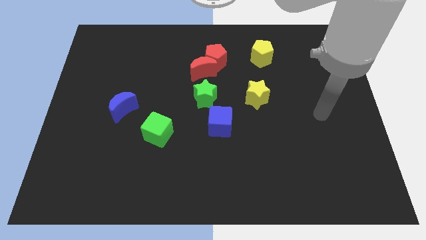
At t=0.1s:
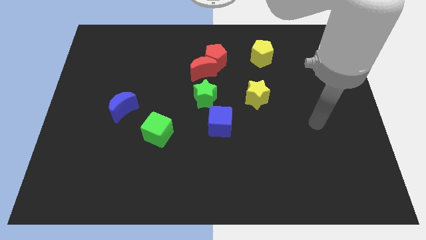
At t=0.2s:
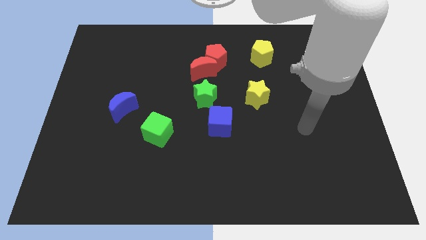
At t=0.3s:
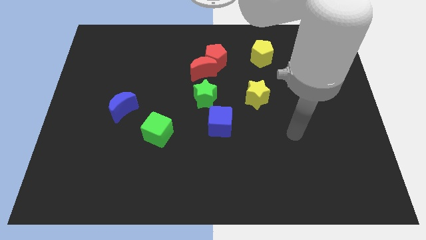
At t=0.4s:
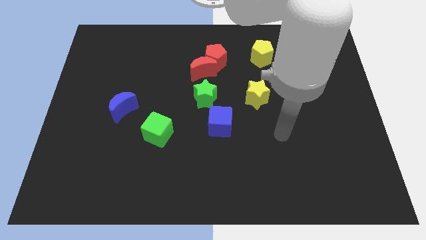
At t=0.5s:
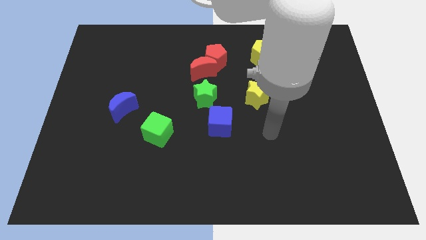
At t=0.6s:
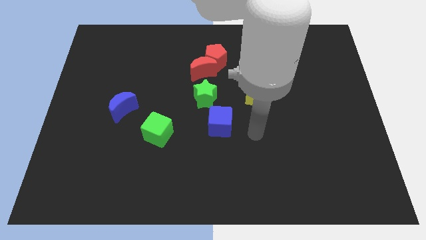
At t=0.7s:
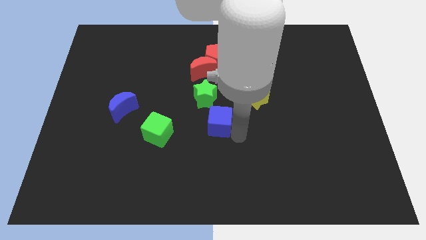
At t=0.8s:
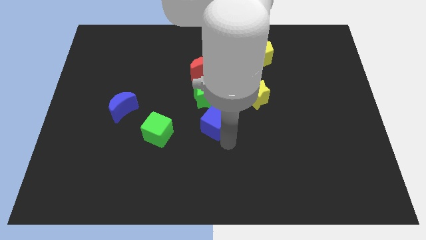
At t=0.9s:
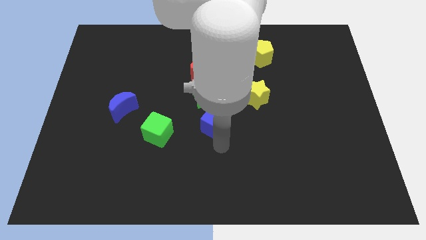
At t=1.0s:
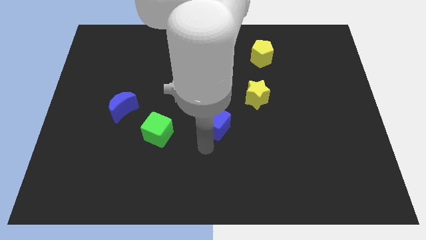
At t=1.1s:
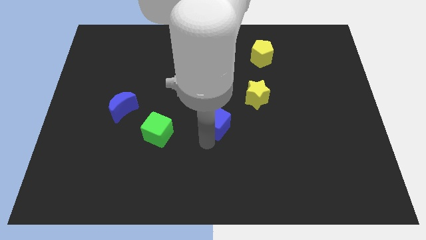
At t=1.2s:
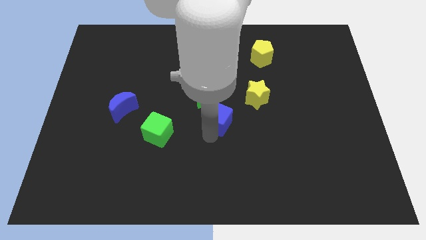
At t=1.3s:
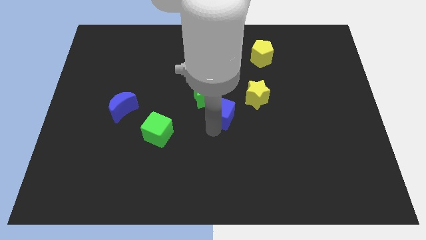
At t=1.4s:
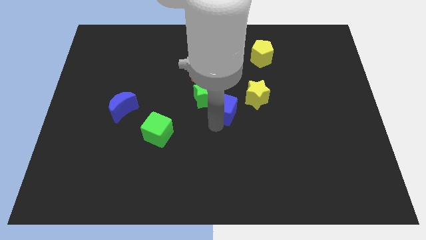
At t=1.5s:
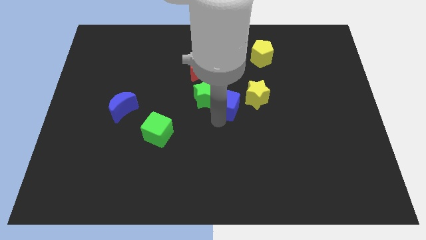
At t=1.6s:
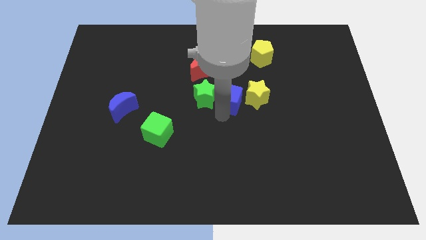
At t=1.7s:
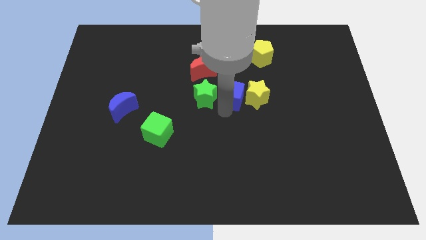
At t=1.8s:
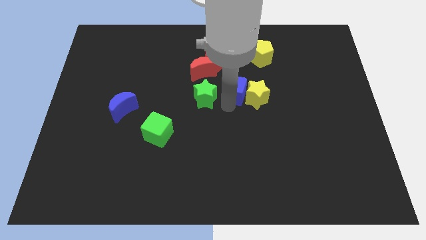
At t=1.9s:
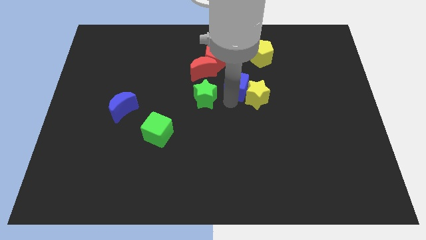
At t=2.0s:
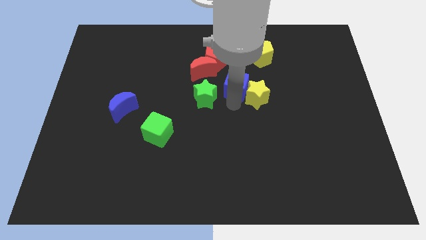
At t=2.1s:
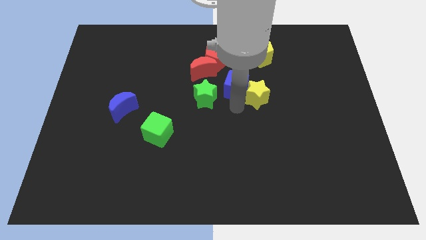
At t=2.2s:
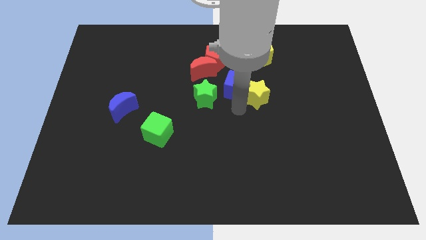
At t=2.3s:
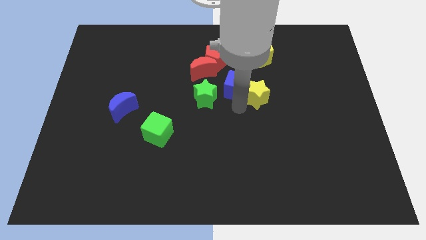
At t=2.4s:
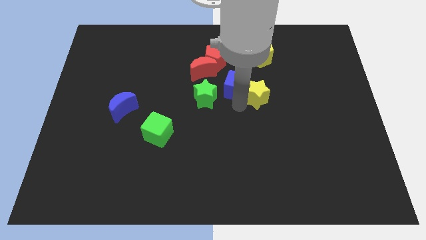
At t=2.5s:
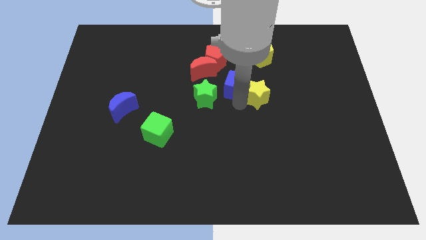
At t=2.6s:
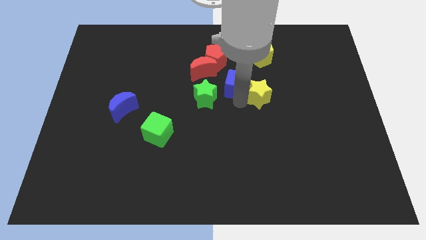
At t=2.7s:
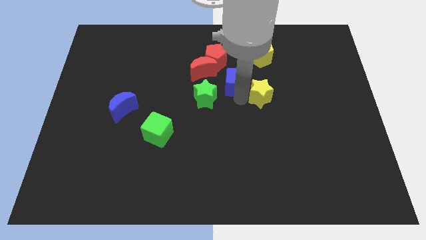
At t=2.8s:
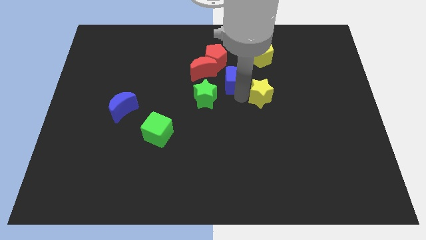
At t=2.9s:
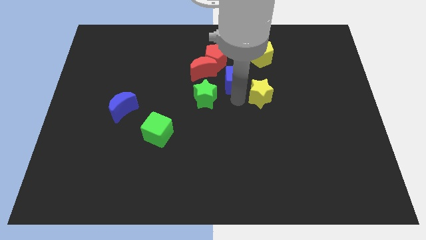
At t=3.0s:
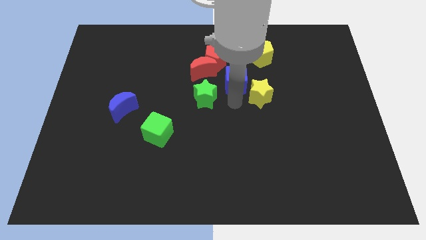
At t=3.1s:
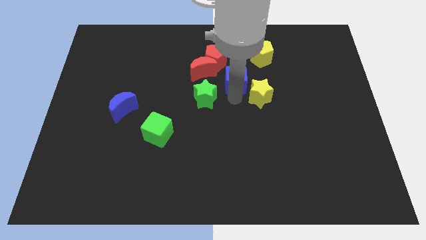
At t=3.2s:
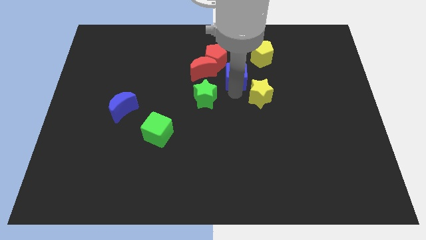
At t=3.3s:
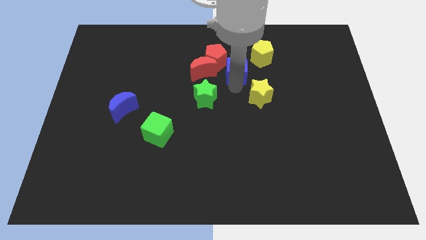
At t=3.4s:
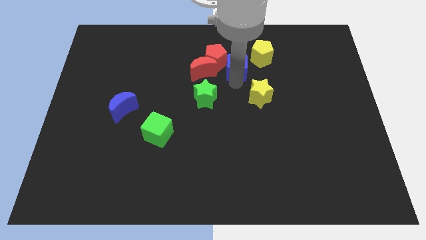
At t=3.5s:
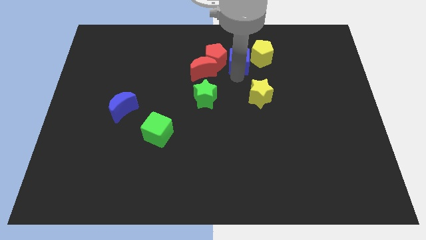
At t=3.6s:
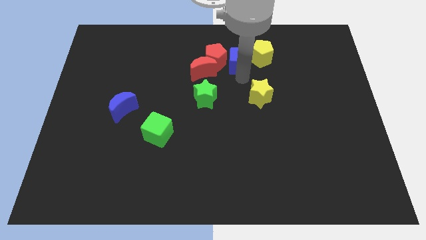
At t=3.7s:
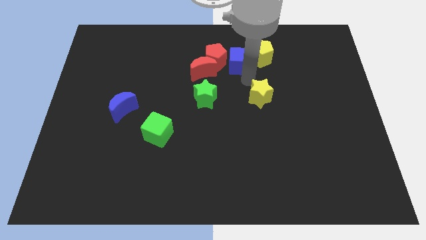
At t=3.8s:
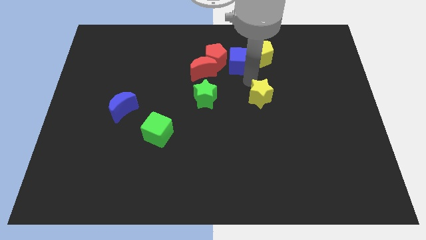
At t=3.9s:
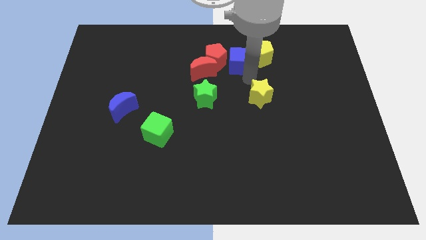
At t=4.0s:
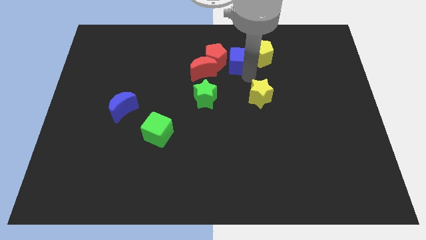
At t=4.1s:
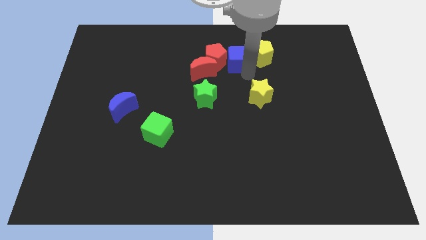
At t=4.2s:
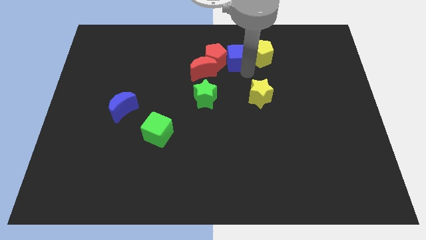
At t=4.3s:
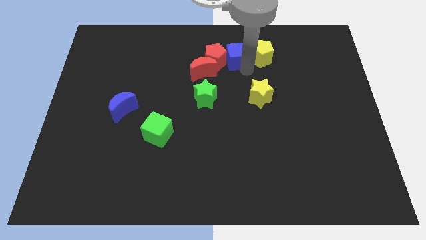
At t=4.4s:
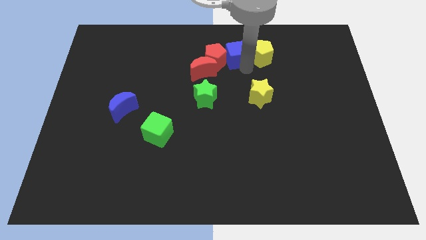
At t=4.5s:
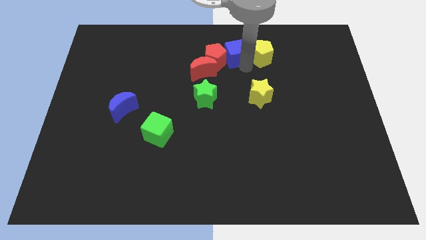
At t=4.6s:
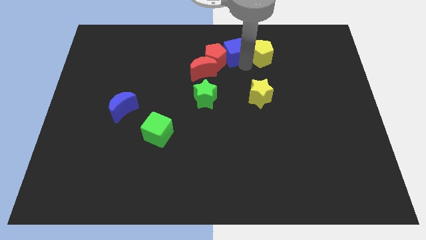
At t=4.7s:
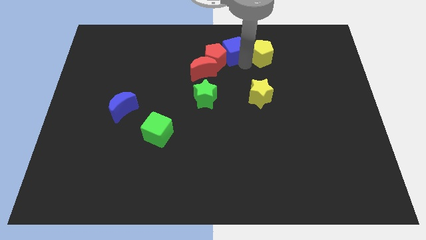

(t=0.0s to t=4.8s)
move the blue cube to the top side

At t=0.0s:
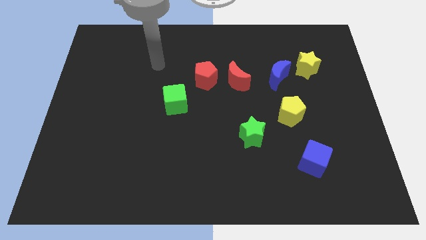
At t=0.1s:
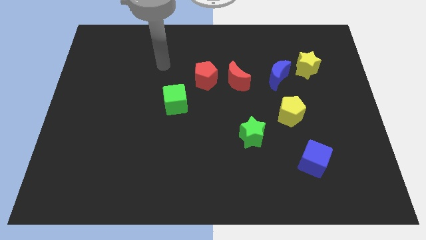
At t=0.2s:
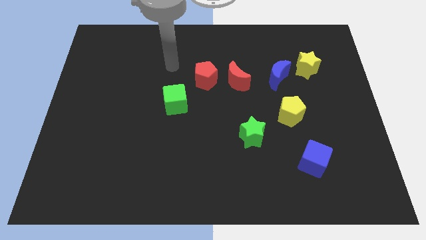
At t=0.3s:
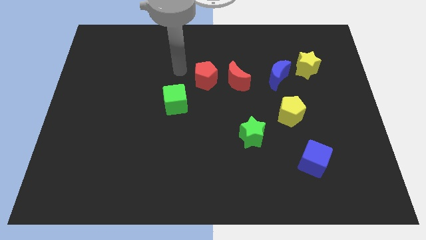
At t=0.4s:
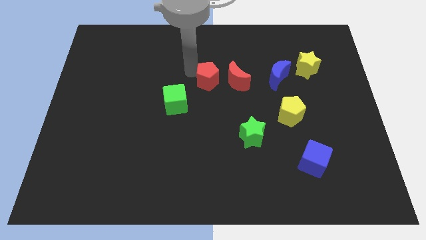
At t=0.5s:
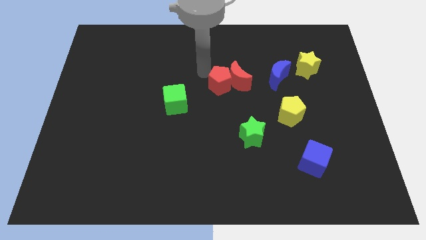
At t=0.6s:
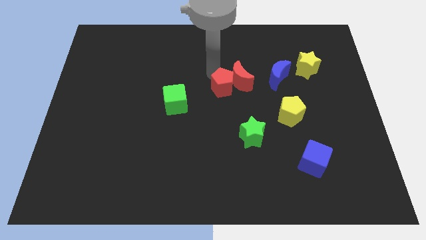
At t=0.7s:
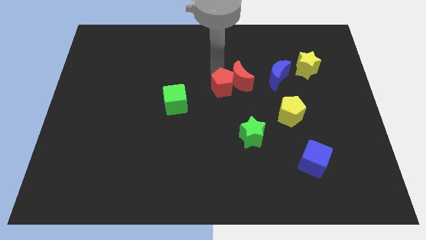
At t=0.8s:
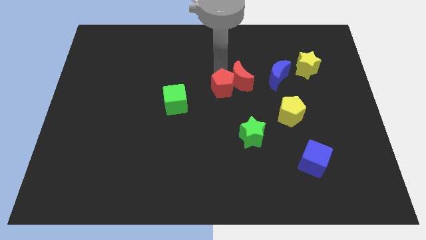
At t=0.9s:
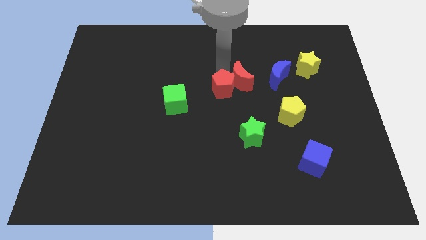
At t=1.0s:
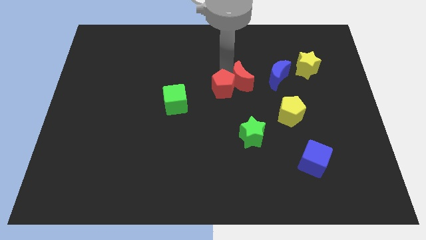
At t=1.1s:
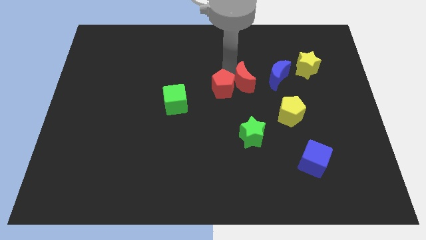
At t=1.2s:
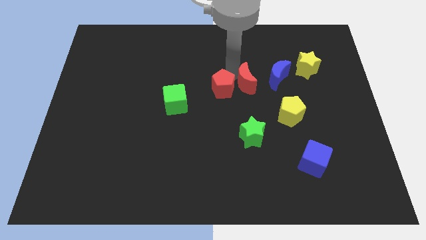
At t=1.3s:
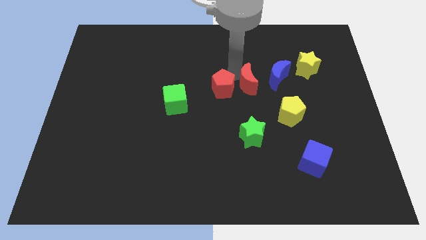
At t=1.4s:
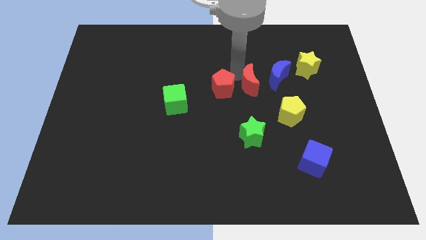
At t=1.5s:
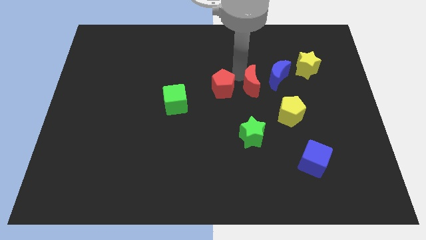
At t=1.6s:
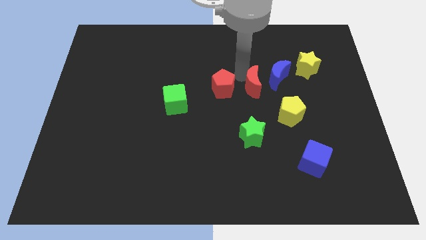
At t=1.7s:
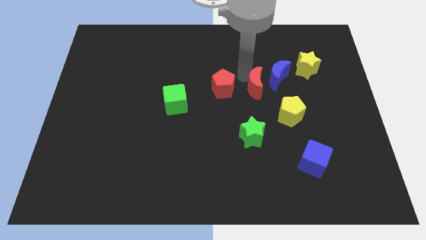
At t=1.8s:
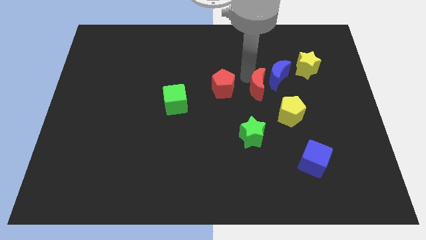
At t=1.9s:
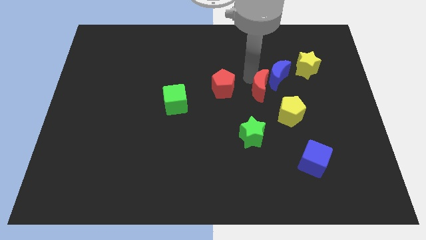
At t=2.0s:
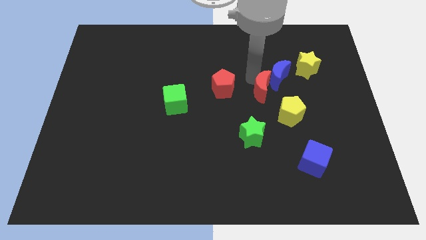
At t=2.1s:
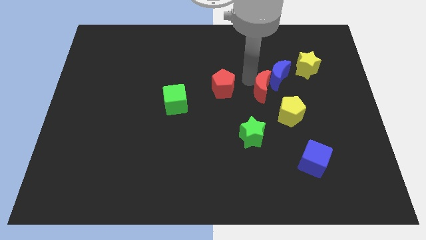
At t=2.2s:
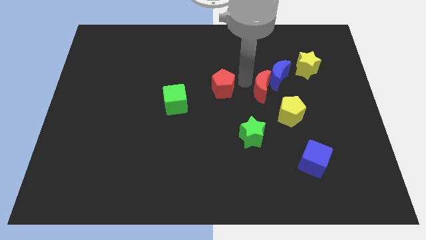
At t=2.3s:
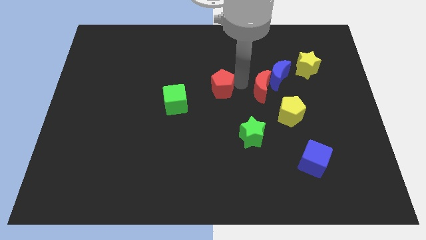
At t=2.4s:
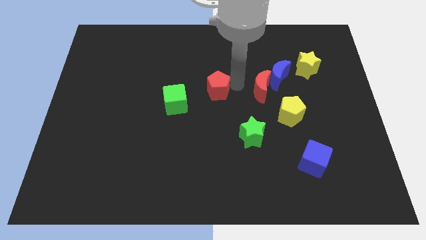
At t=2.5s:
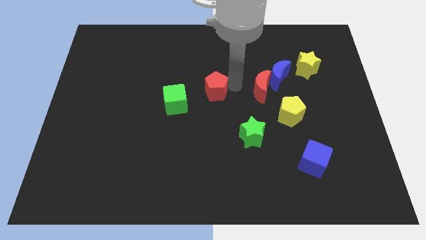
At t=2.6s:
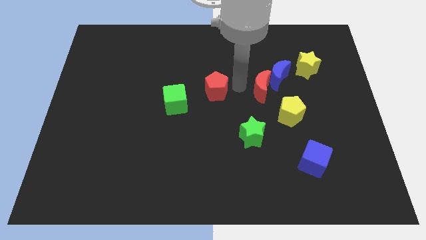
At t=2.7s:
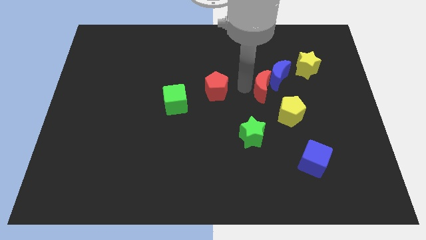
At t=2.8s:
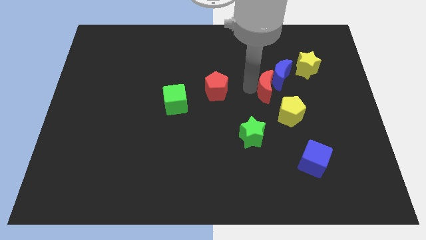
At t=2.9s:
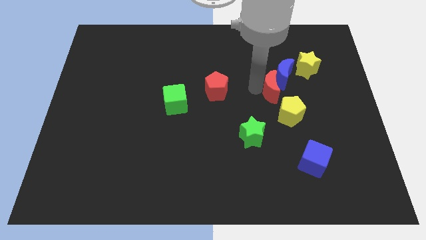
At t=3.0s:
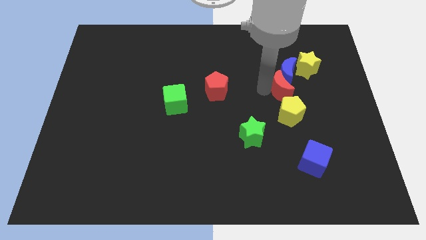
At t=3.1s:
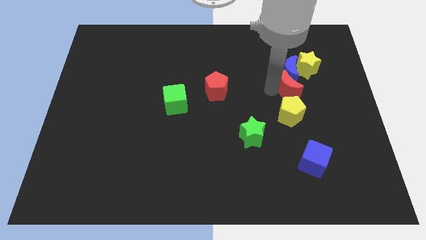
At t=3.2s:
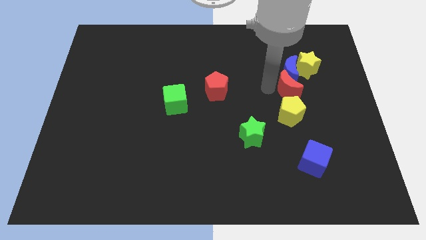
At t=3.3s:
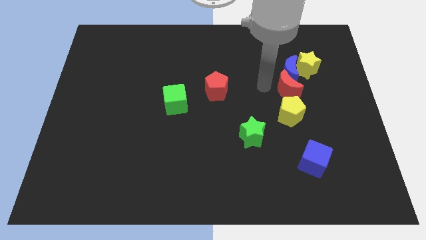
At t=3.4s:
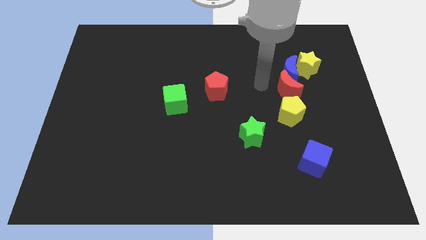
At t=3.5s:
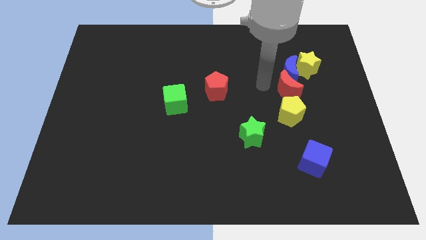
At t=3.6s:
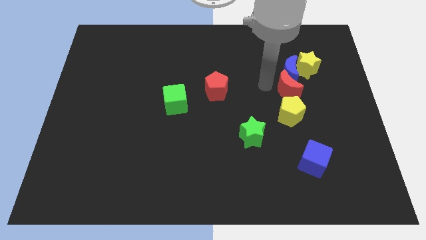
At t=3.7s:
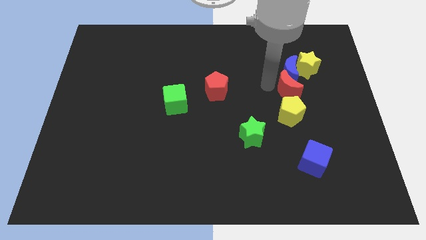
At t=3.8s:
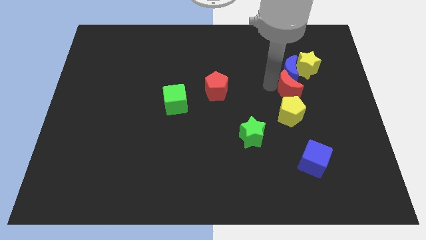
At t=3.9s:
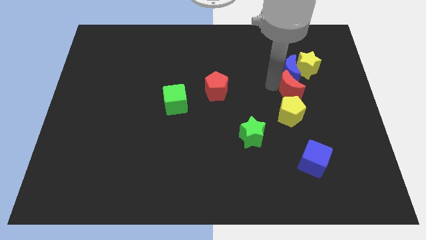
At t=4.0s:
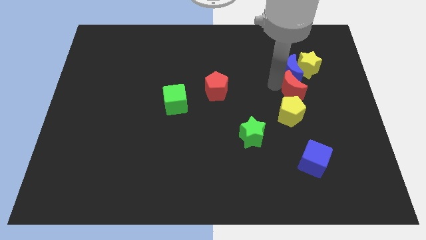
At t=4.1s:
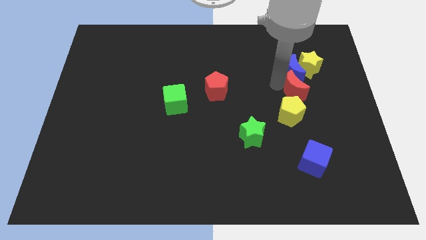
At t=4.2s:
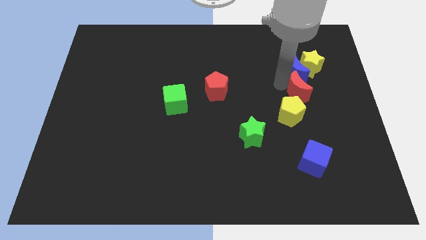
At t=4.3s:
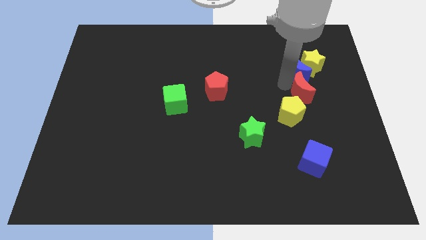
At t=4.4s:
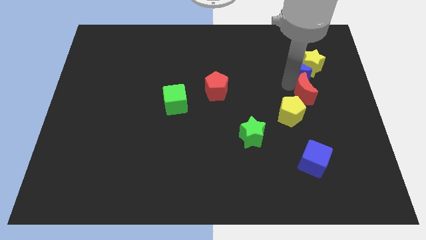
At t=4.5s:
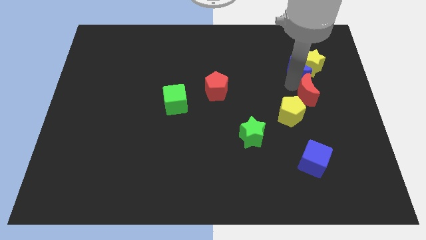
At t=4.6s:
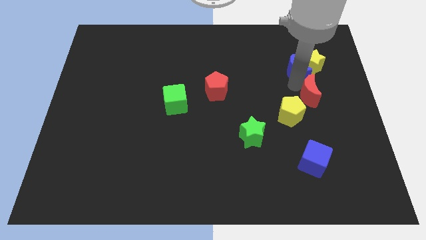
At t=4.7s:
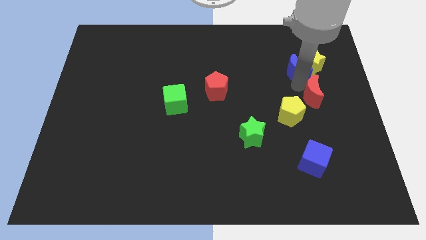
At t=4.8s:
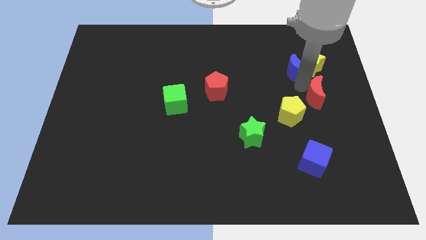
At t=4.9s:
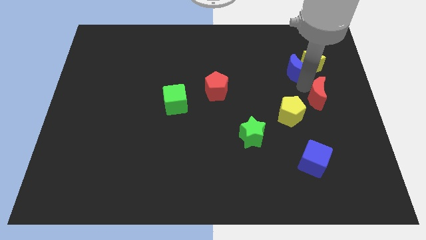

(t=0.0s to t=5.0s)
push the red moon to the right side
